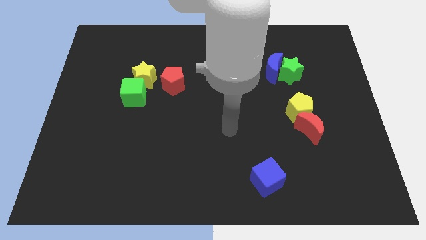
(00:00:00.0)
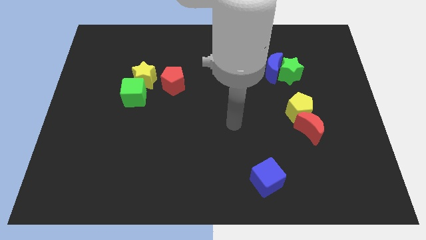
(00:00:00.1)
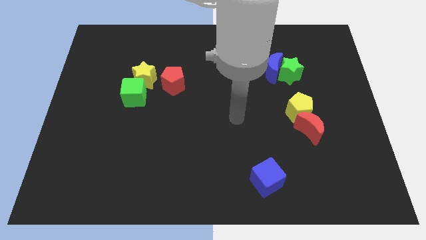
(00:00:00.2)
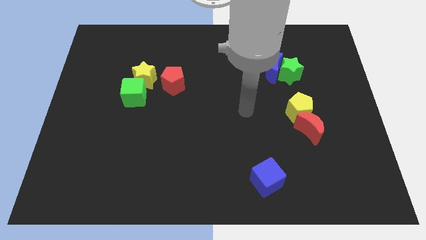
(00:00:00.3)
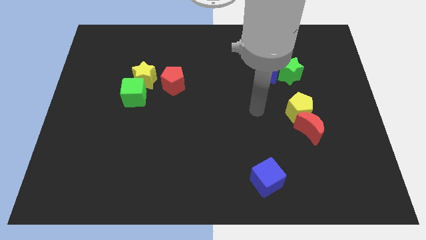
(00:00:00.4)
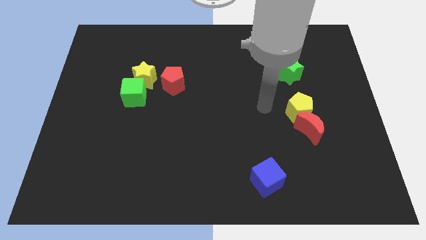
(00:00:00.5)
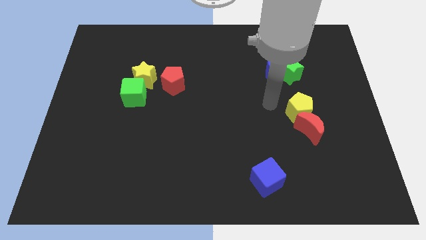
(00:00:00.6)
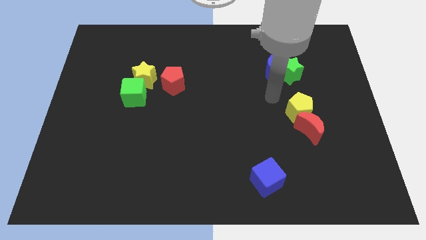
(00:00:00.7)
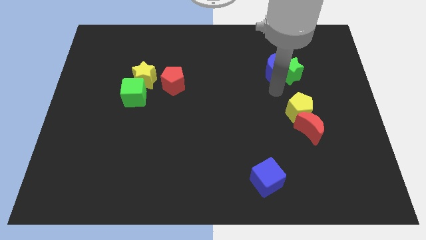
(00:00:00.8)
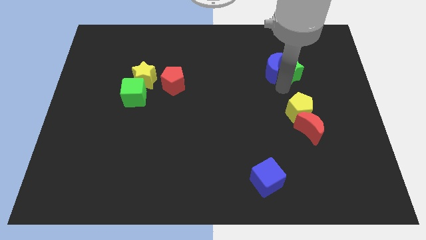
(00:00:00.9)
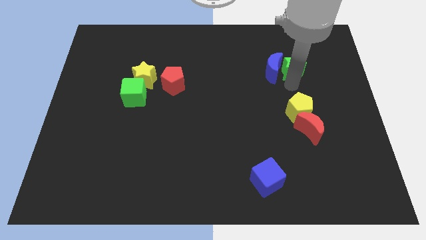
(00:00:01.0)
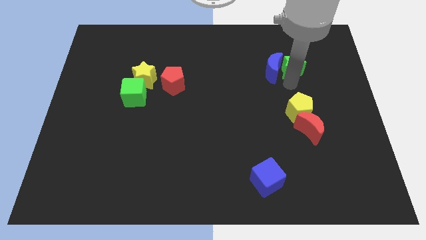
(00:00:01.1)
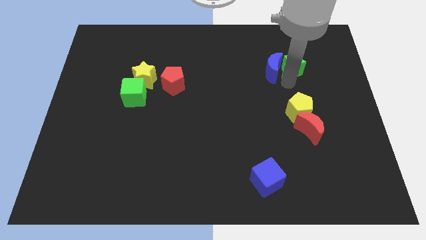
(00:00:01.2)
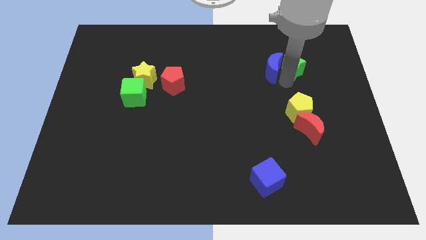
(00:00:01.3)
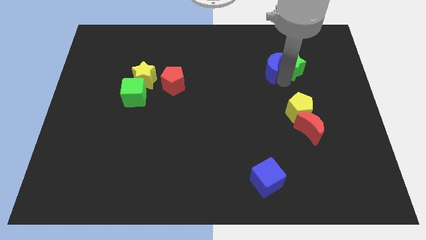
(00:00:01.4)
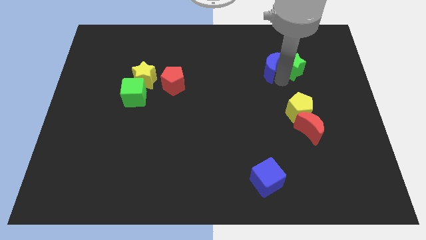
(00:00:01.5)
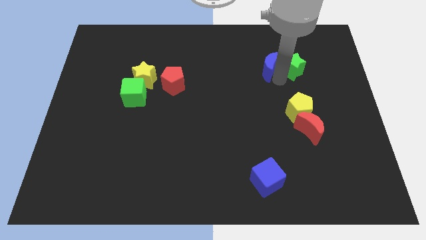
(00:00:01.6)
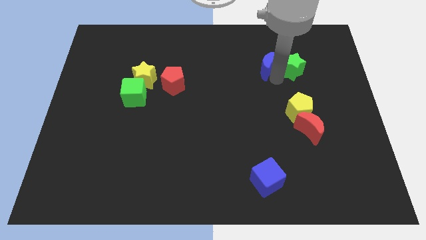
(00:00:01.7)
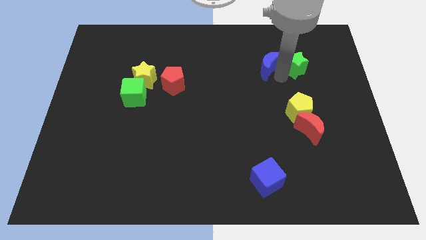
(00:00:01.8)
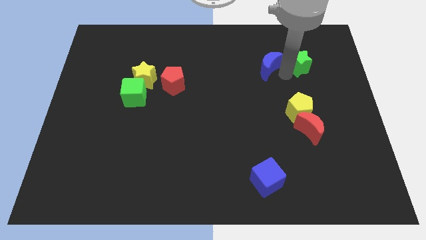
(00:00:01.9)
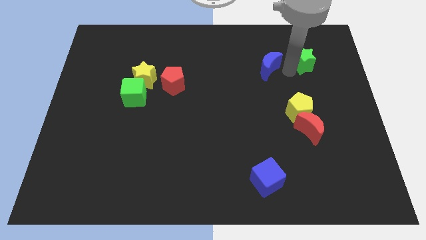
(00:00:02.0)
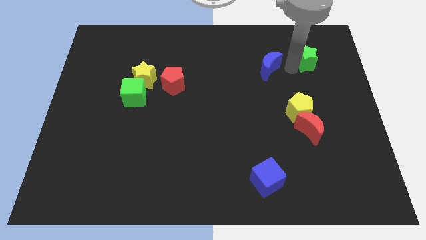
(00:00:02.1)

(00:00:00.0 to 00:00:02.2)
move the blue moon away from the green star

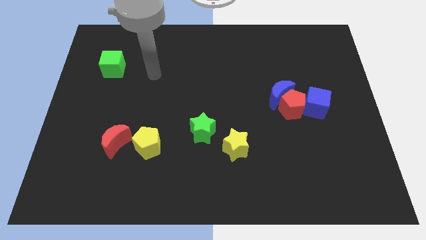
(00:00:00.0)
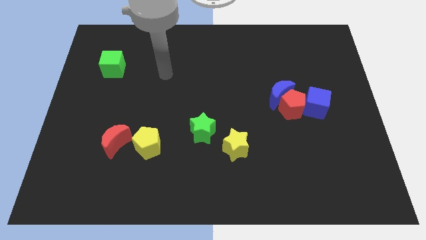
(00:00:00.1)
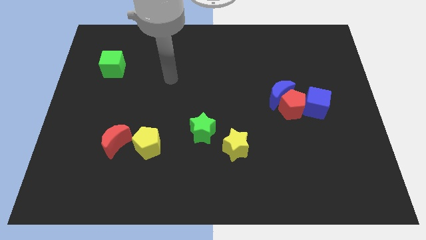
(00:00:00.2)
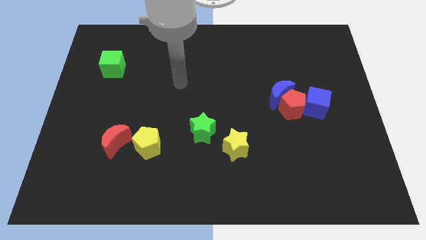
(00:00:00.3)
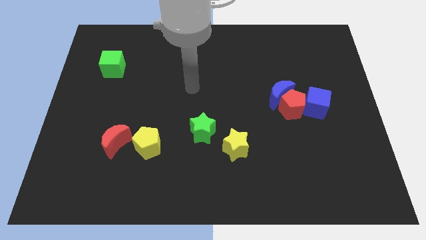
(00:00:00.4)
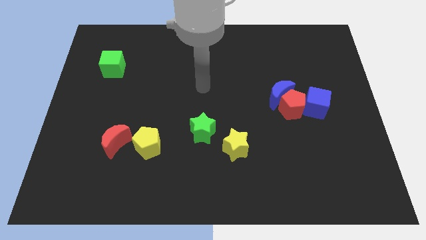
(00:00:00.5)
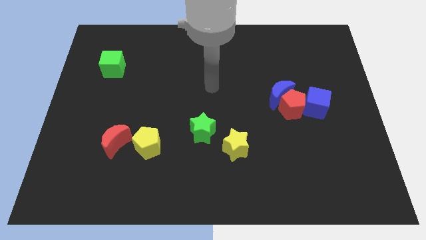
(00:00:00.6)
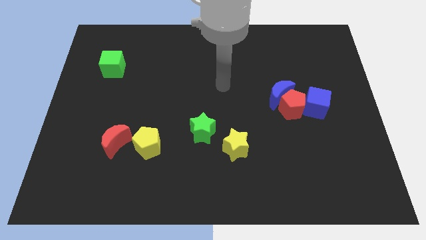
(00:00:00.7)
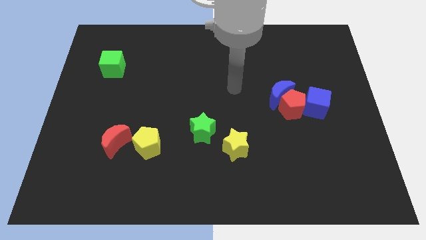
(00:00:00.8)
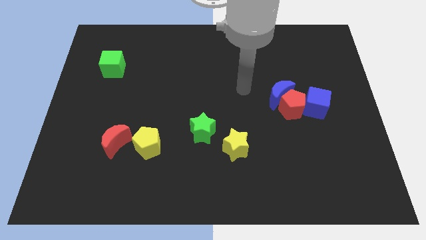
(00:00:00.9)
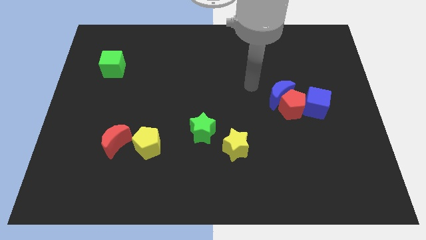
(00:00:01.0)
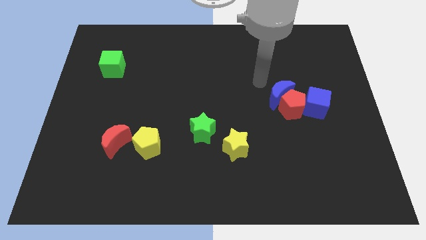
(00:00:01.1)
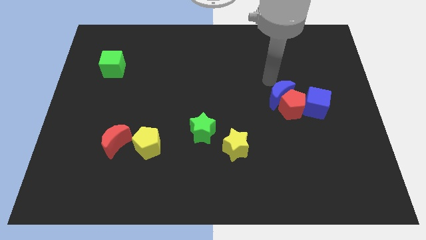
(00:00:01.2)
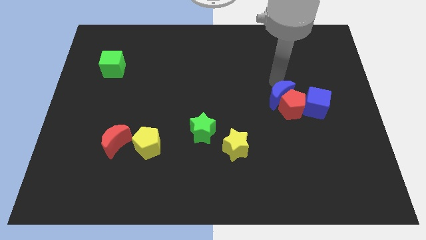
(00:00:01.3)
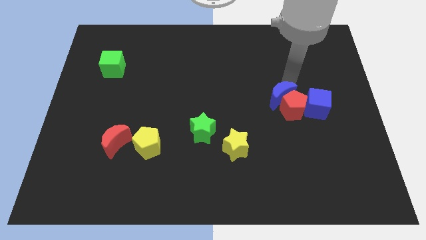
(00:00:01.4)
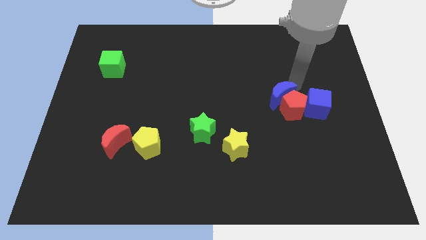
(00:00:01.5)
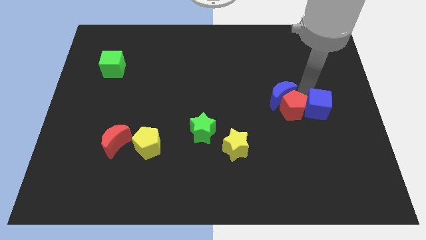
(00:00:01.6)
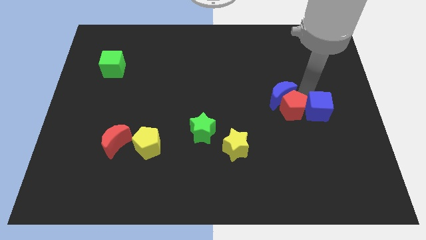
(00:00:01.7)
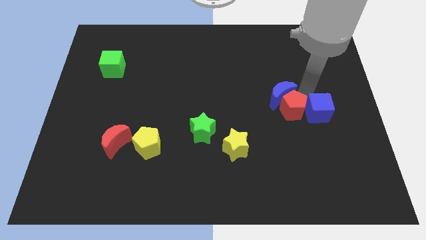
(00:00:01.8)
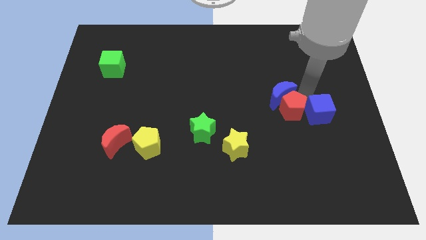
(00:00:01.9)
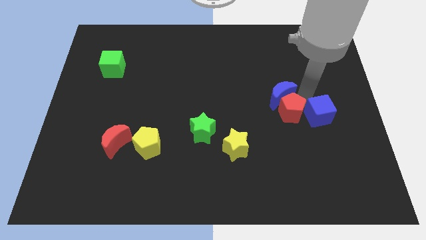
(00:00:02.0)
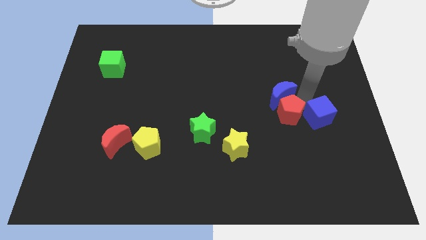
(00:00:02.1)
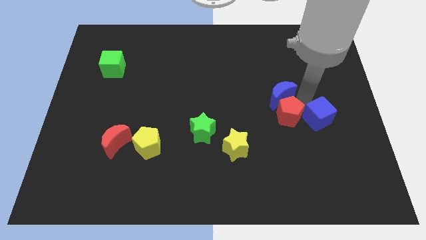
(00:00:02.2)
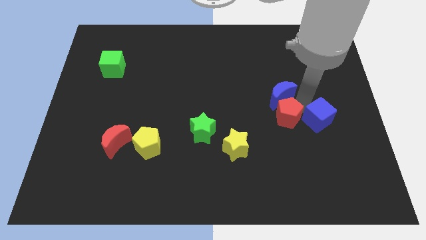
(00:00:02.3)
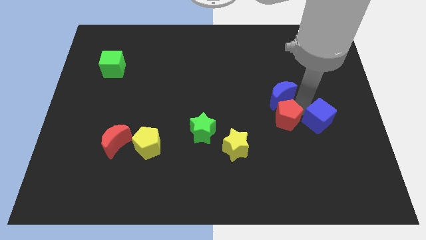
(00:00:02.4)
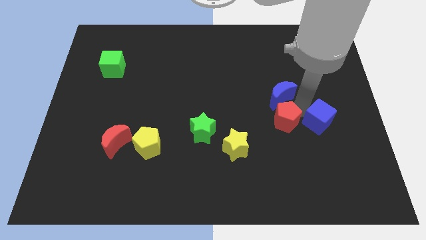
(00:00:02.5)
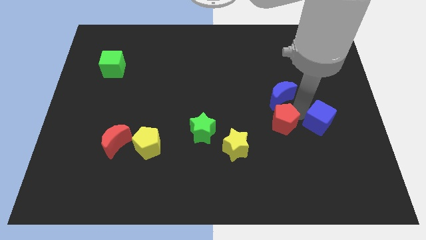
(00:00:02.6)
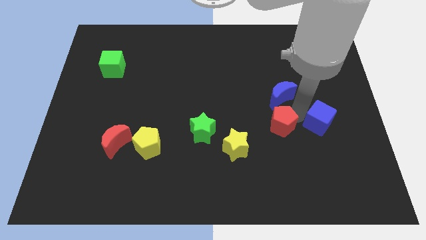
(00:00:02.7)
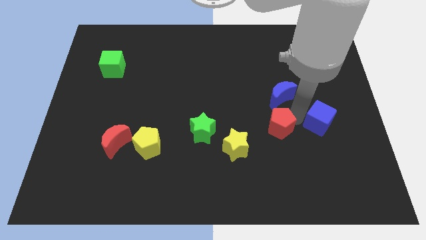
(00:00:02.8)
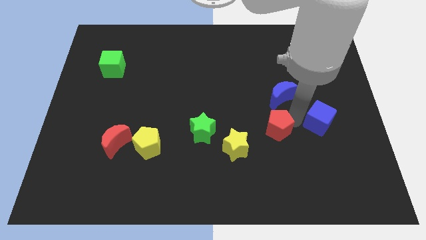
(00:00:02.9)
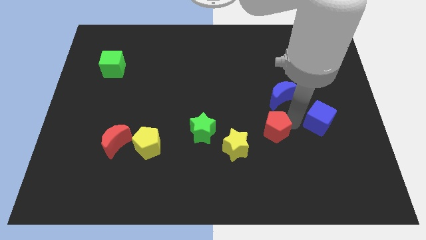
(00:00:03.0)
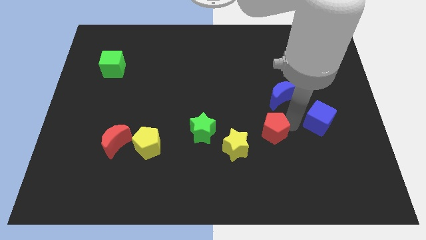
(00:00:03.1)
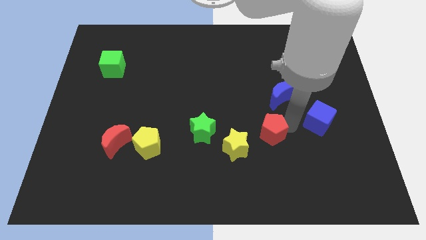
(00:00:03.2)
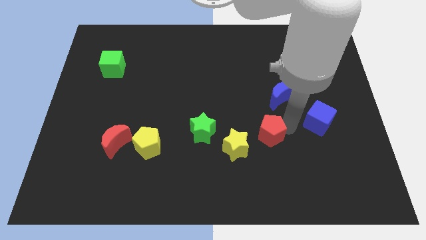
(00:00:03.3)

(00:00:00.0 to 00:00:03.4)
separate the red pentagon from the blue moon and blue cube

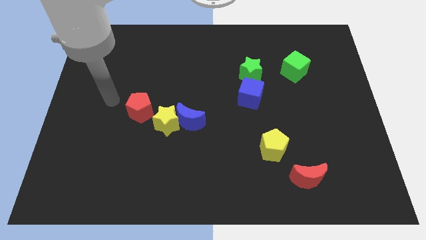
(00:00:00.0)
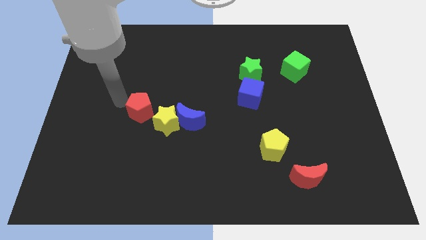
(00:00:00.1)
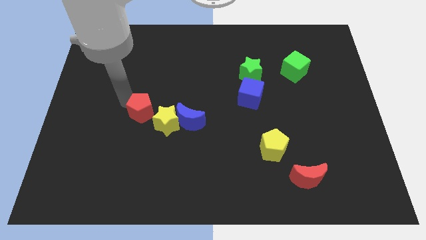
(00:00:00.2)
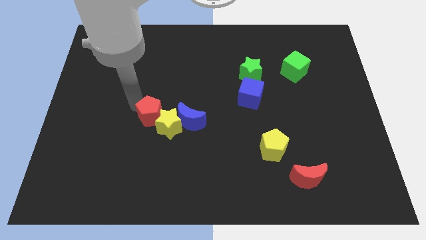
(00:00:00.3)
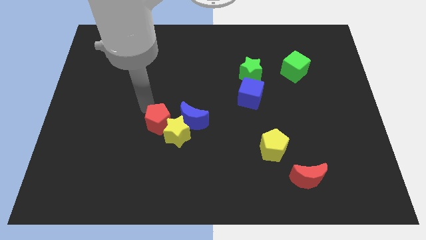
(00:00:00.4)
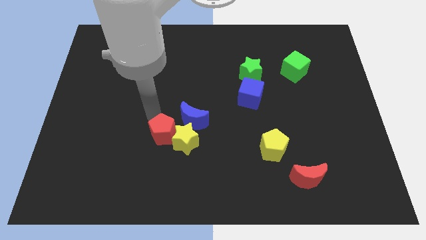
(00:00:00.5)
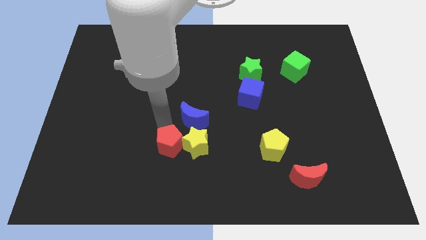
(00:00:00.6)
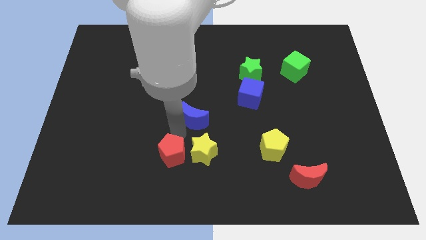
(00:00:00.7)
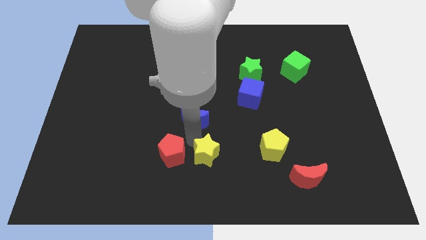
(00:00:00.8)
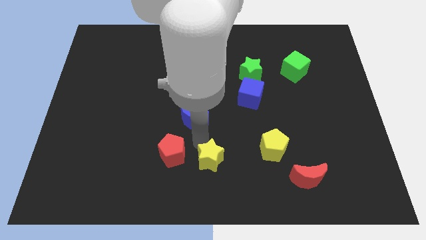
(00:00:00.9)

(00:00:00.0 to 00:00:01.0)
move the blue moon away from the yellow star

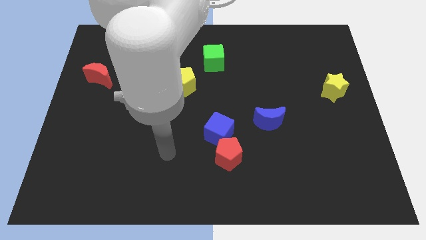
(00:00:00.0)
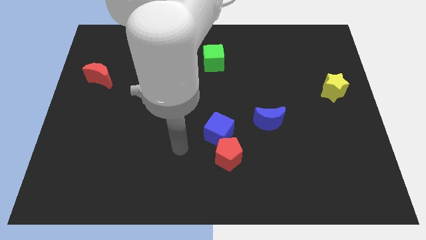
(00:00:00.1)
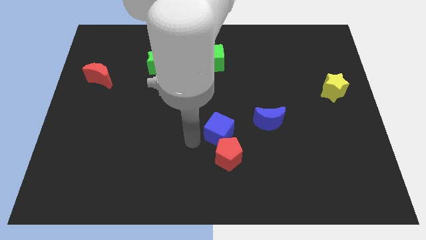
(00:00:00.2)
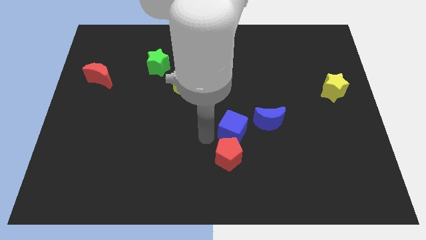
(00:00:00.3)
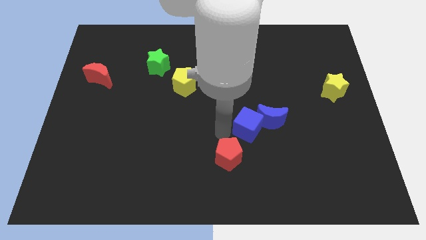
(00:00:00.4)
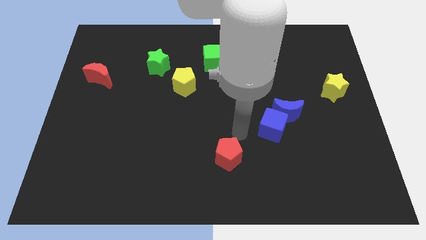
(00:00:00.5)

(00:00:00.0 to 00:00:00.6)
pull the red pentagon apart from the blue cube

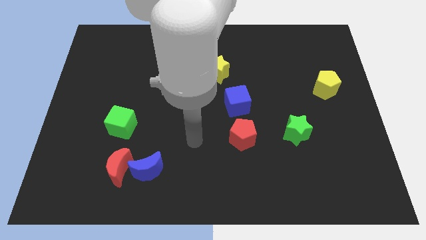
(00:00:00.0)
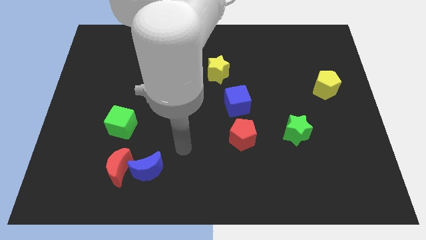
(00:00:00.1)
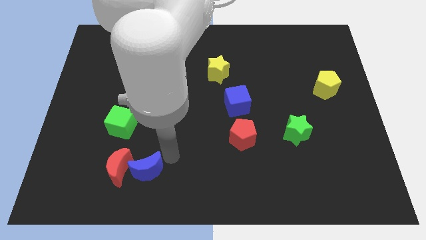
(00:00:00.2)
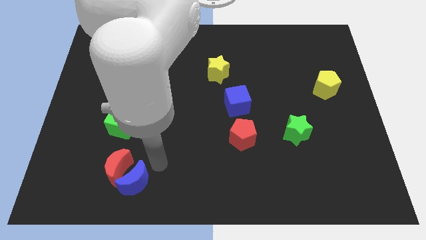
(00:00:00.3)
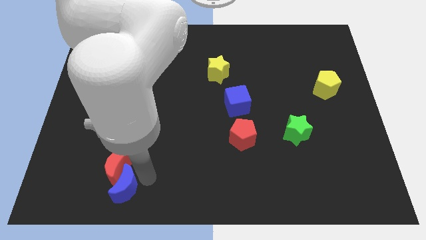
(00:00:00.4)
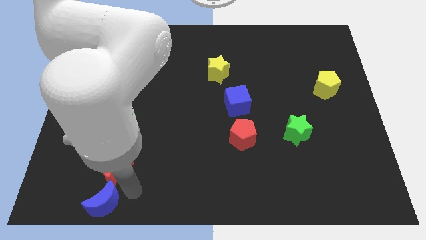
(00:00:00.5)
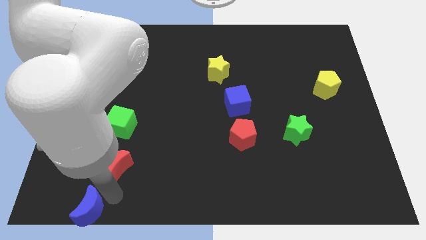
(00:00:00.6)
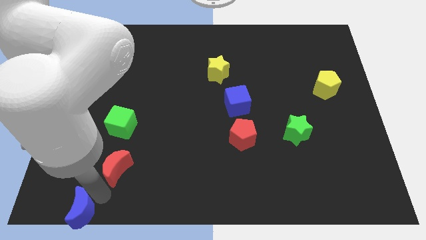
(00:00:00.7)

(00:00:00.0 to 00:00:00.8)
pull the red moon apart from the blue moon

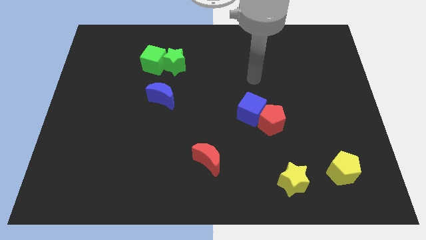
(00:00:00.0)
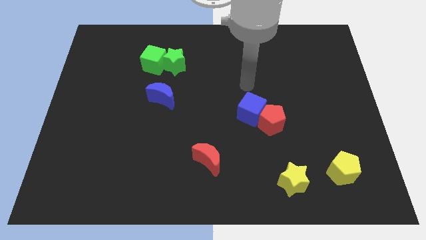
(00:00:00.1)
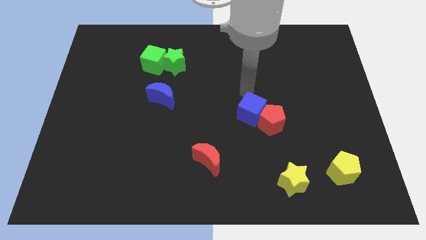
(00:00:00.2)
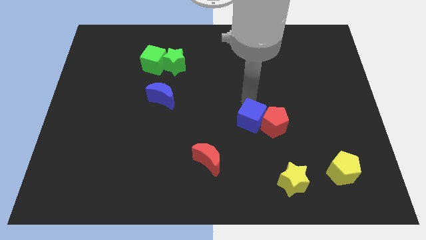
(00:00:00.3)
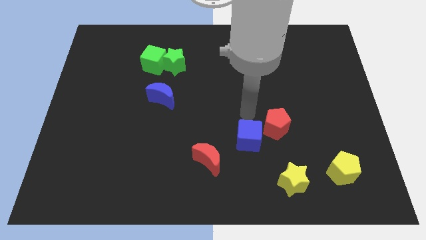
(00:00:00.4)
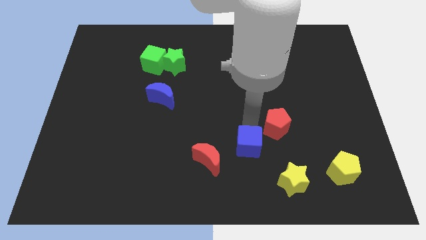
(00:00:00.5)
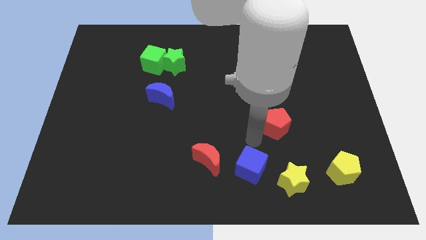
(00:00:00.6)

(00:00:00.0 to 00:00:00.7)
separate the red pentagon from the blue cube

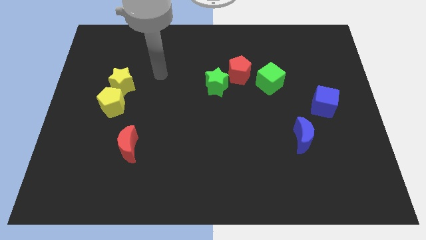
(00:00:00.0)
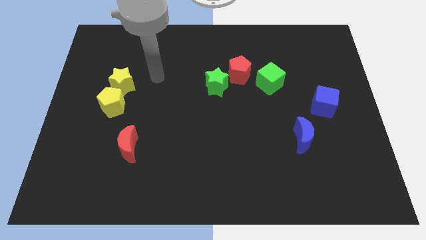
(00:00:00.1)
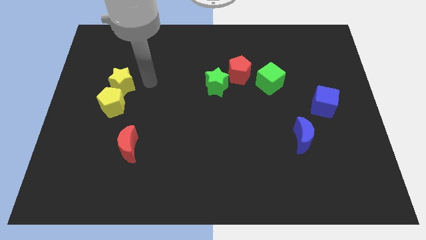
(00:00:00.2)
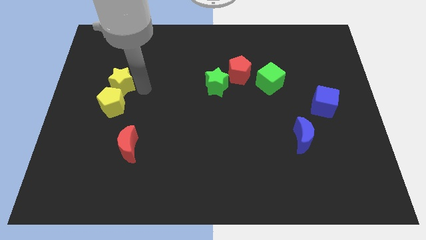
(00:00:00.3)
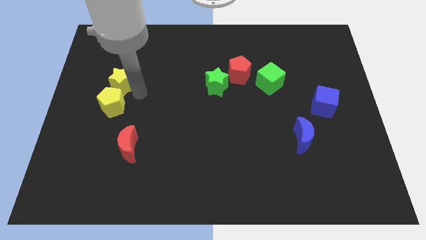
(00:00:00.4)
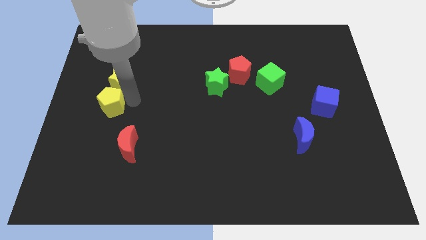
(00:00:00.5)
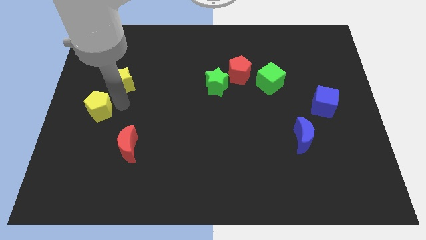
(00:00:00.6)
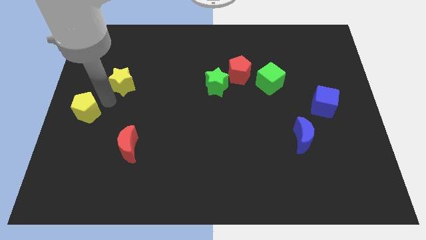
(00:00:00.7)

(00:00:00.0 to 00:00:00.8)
pull the yellow star apart from the yellow pentagon
